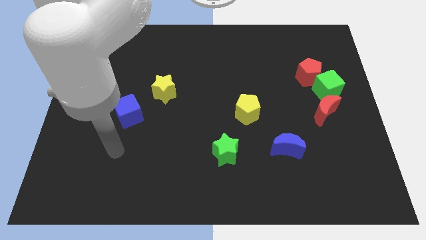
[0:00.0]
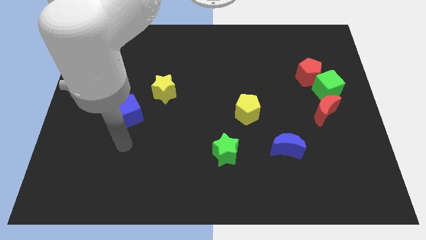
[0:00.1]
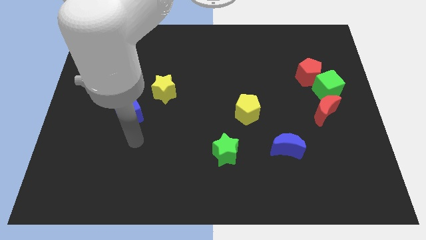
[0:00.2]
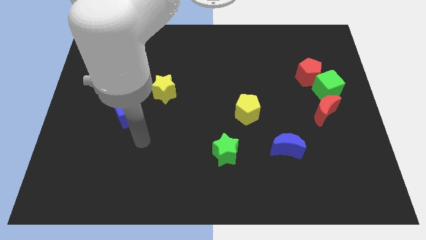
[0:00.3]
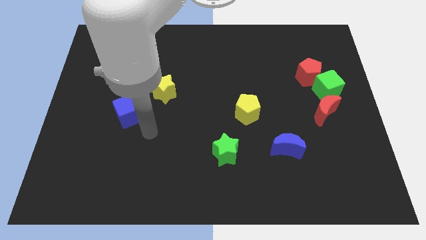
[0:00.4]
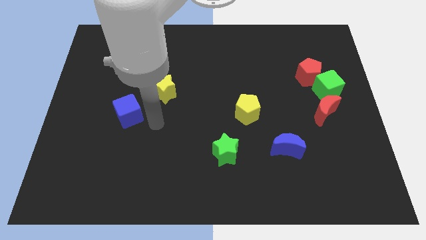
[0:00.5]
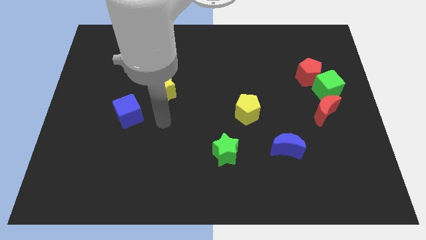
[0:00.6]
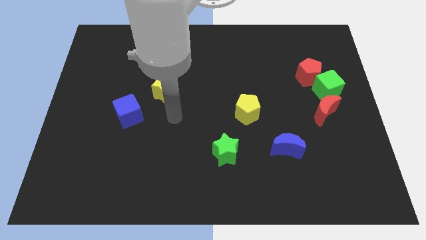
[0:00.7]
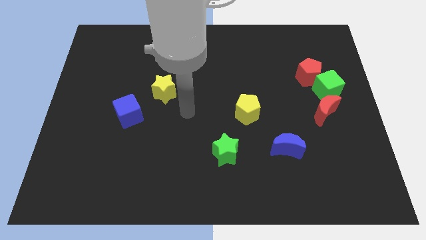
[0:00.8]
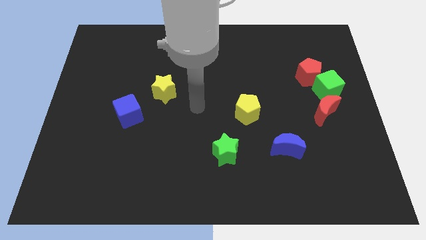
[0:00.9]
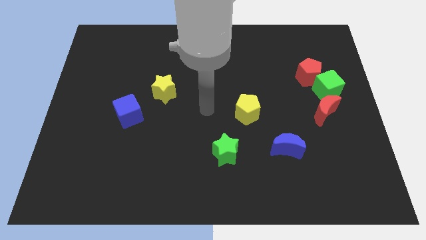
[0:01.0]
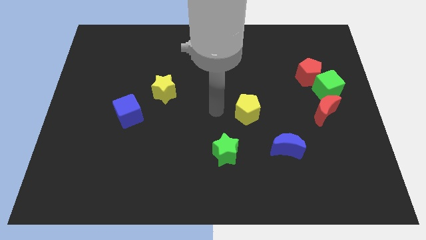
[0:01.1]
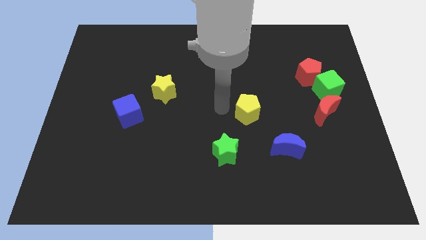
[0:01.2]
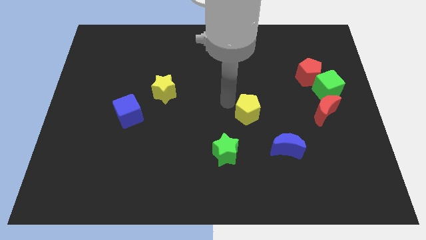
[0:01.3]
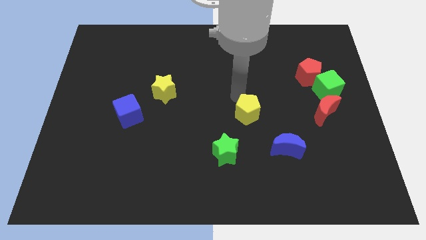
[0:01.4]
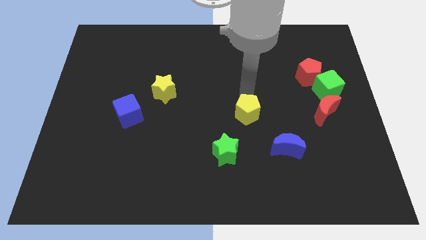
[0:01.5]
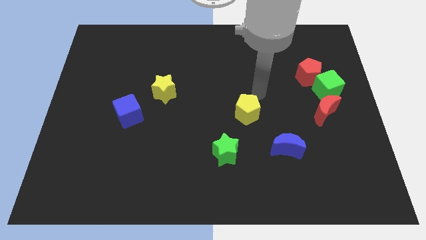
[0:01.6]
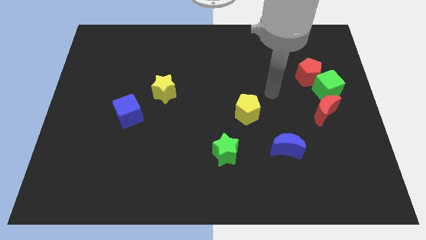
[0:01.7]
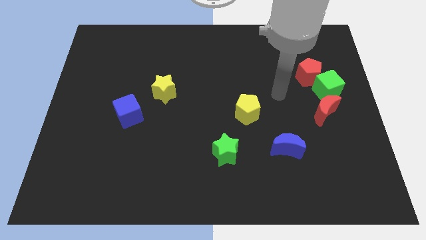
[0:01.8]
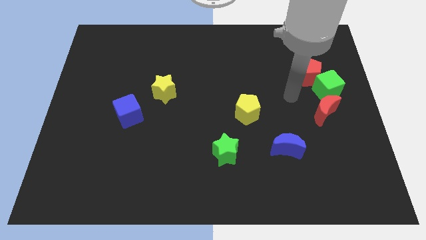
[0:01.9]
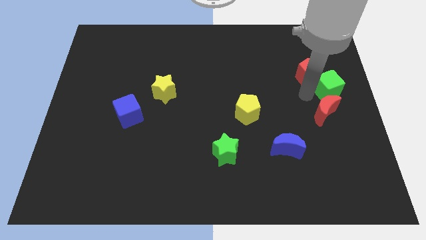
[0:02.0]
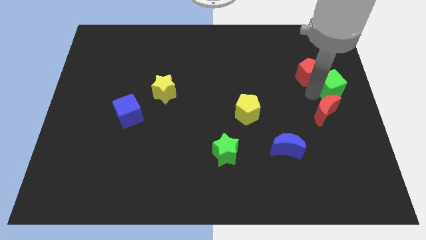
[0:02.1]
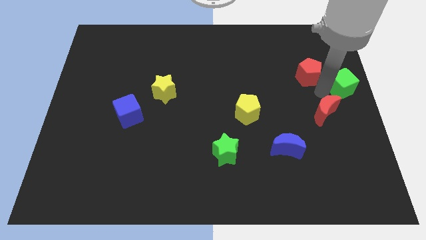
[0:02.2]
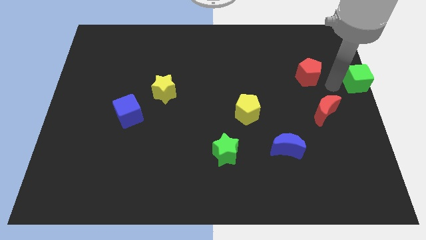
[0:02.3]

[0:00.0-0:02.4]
separate the red pentagon from the green cube

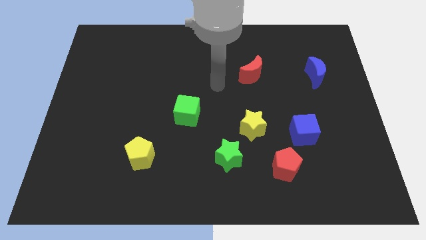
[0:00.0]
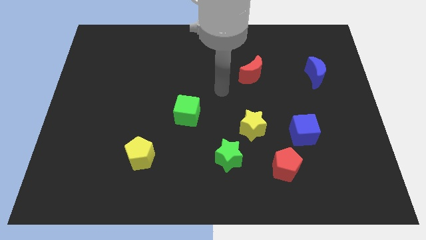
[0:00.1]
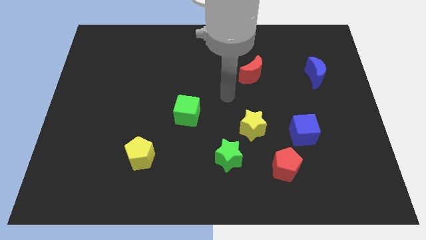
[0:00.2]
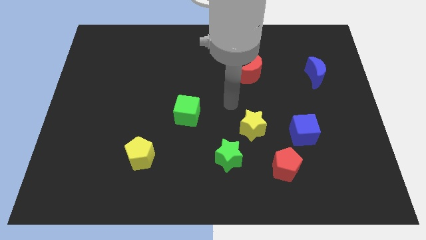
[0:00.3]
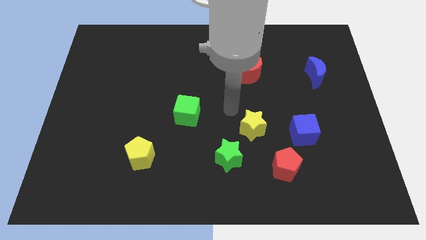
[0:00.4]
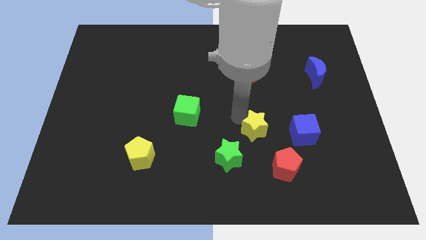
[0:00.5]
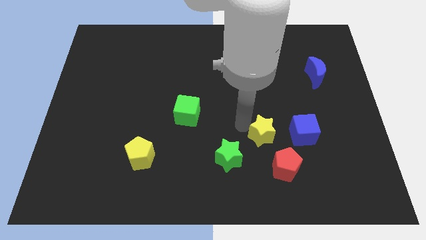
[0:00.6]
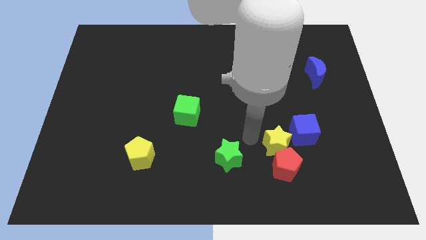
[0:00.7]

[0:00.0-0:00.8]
move the green star away from the yellow star

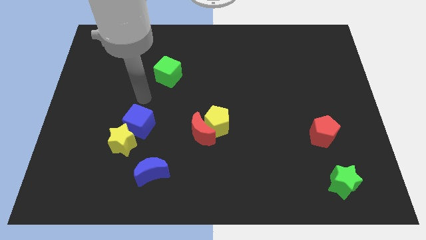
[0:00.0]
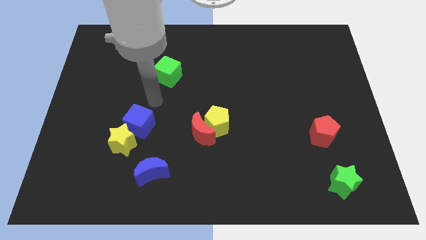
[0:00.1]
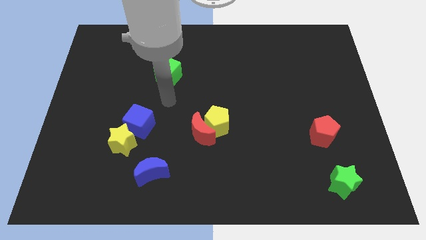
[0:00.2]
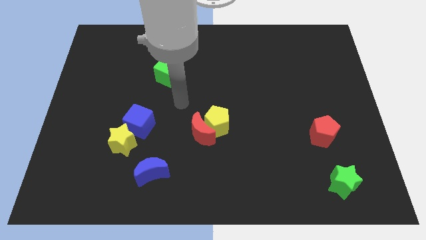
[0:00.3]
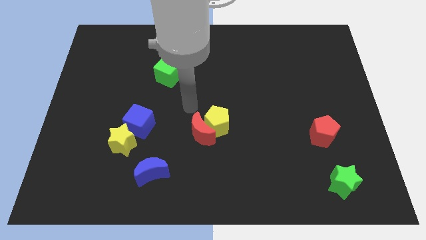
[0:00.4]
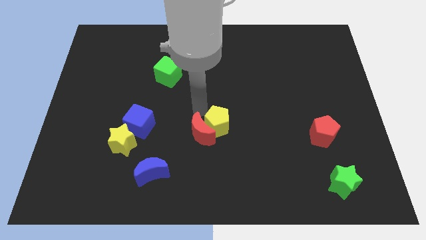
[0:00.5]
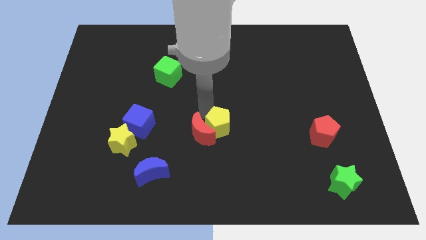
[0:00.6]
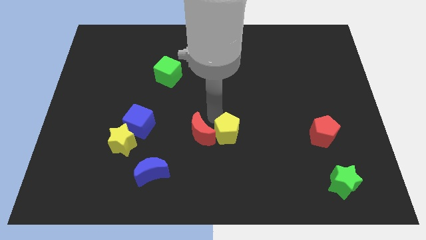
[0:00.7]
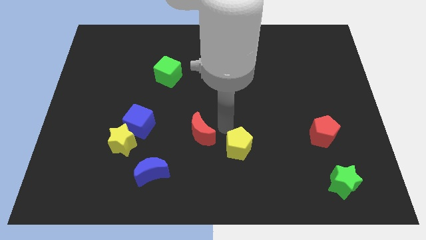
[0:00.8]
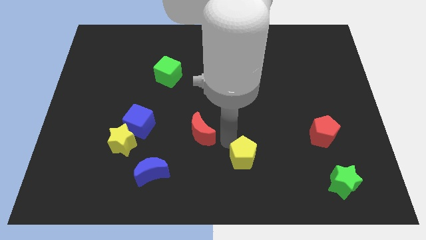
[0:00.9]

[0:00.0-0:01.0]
move the red moon away from the yellow pentagon

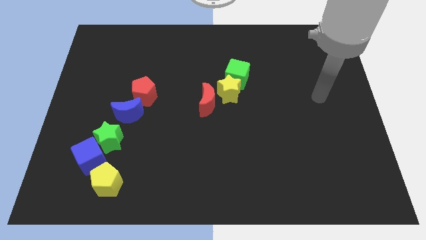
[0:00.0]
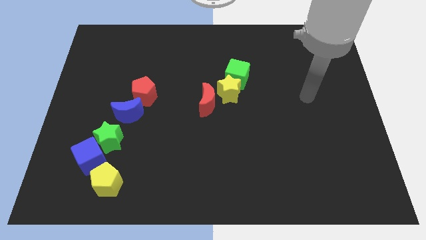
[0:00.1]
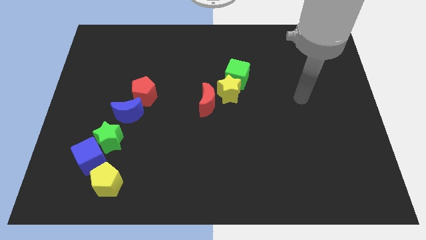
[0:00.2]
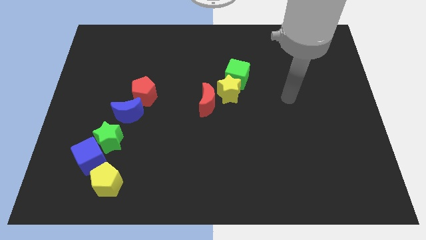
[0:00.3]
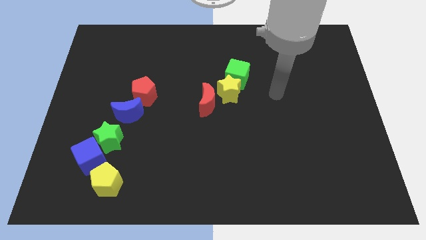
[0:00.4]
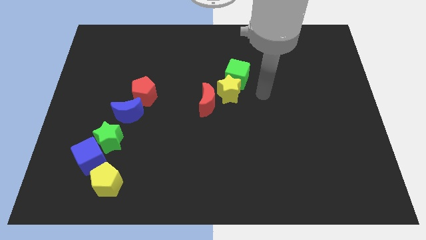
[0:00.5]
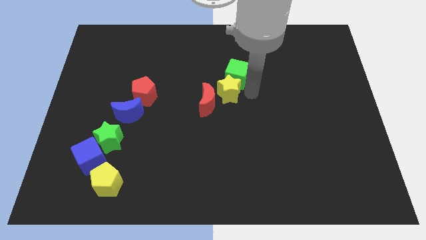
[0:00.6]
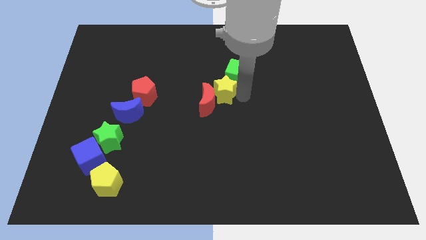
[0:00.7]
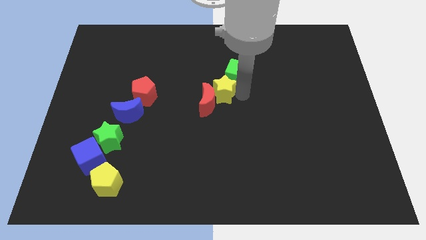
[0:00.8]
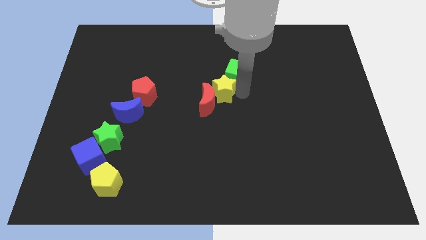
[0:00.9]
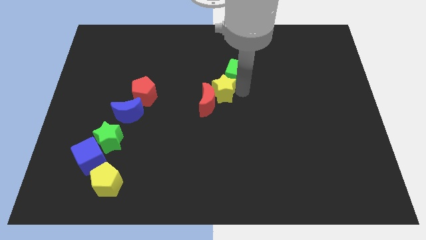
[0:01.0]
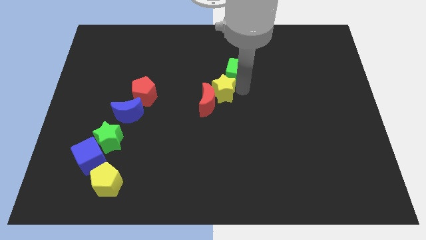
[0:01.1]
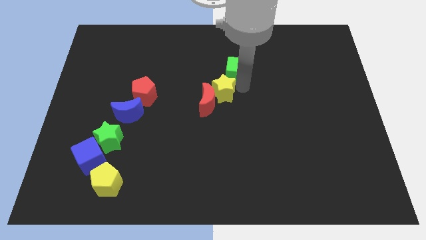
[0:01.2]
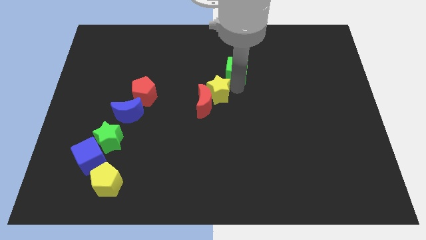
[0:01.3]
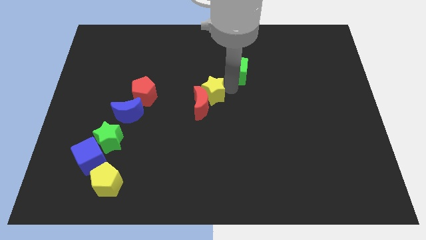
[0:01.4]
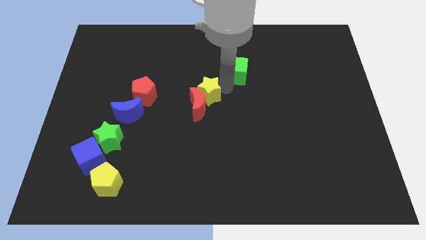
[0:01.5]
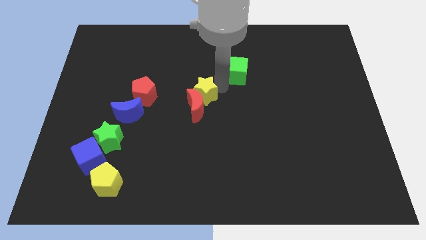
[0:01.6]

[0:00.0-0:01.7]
move the green cube away from the yellow star

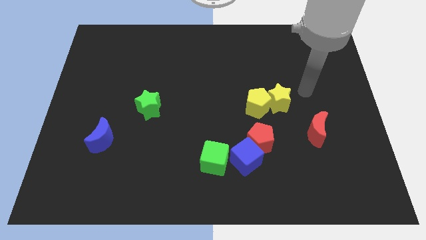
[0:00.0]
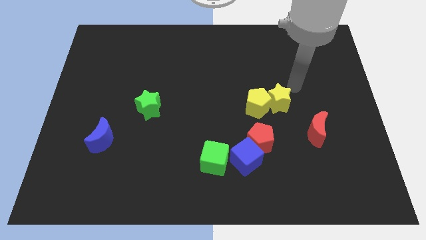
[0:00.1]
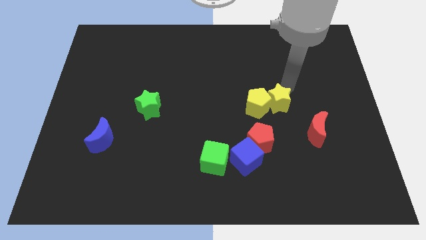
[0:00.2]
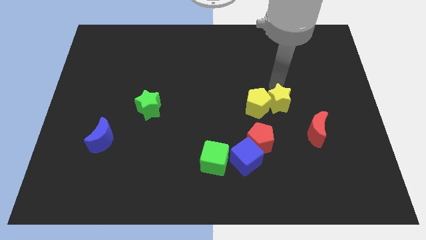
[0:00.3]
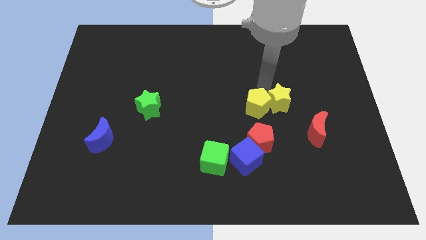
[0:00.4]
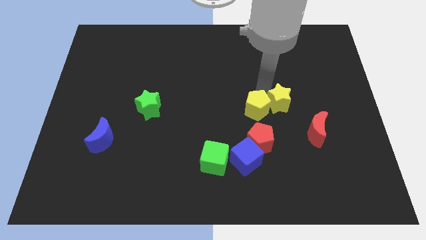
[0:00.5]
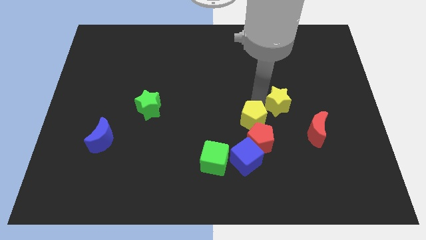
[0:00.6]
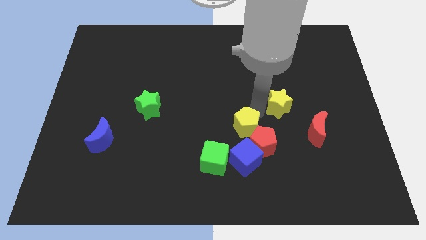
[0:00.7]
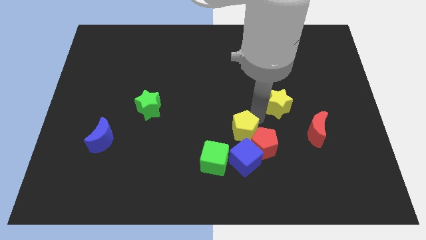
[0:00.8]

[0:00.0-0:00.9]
separate the yellow star from the yellow pentagon

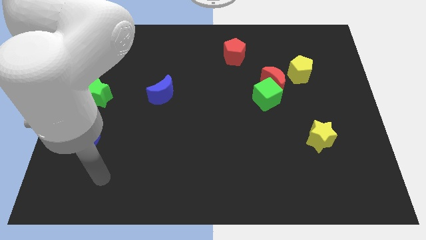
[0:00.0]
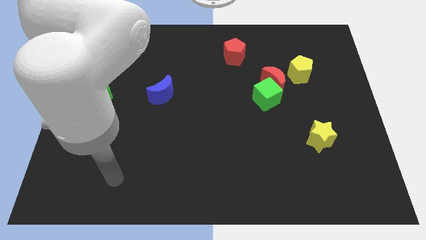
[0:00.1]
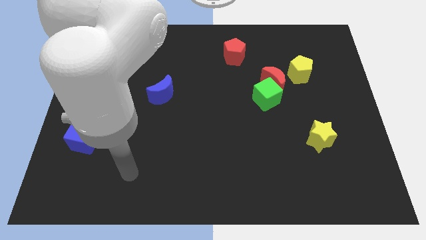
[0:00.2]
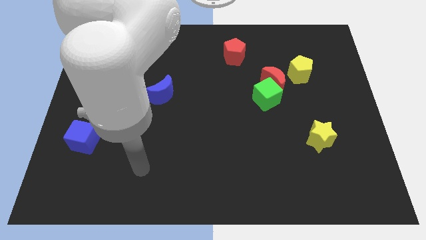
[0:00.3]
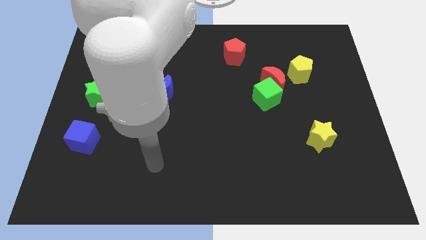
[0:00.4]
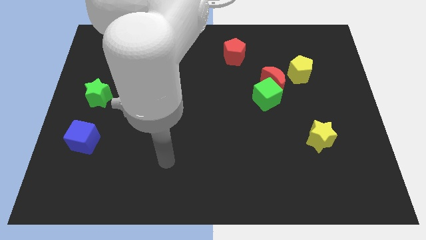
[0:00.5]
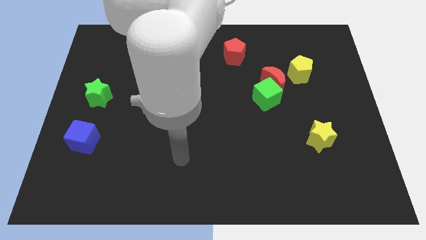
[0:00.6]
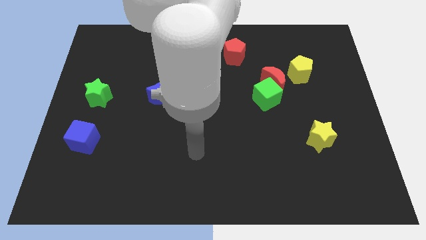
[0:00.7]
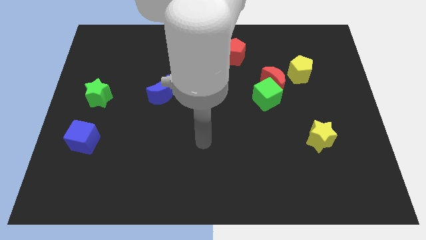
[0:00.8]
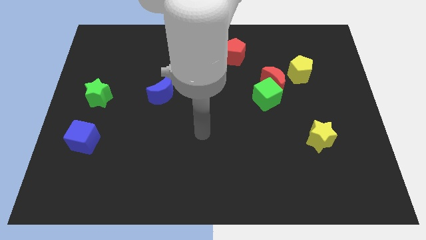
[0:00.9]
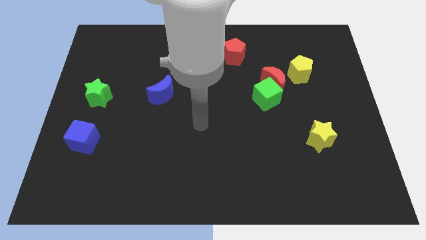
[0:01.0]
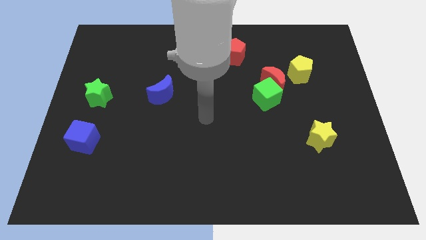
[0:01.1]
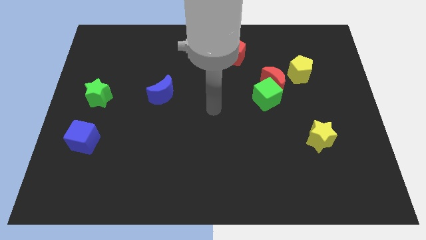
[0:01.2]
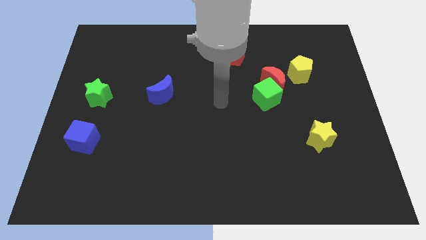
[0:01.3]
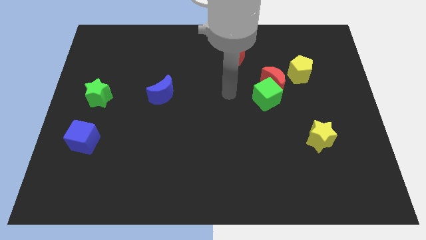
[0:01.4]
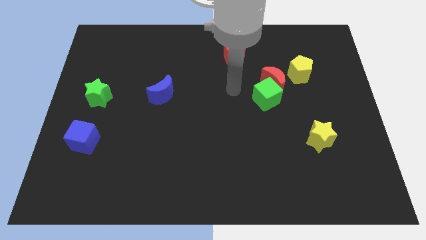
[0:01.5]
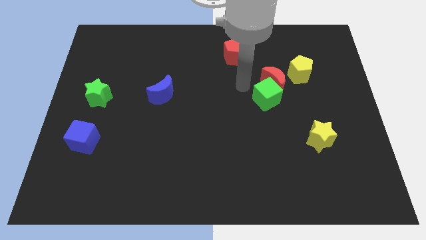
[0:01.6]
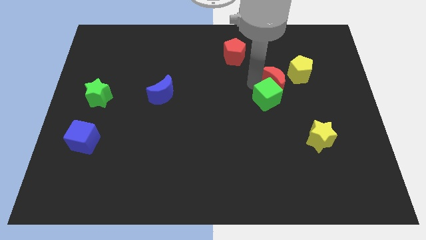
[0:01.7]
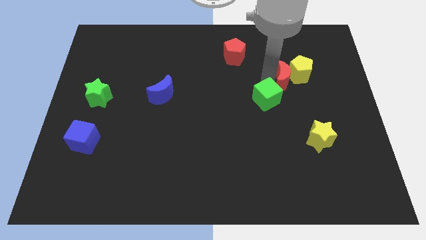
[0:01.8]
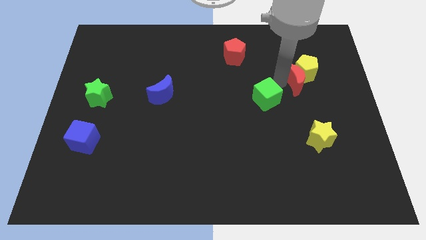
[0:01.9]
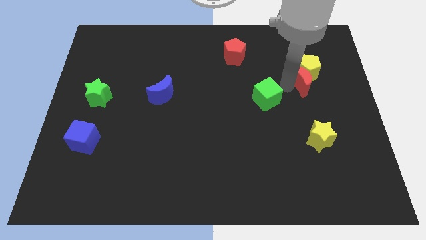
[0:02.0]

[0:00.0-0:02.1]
separate the green cube from the red moon

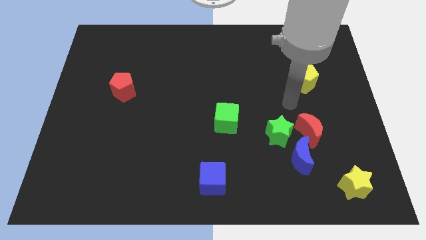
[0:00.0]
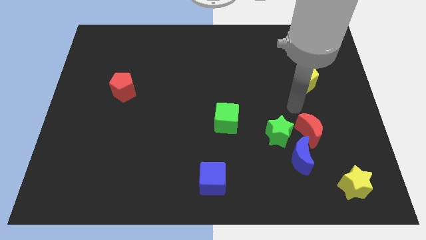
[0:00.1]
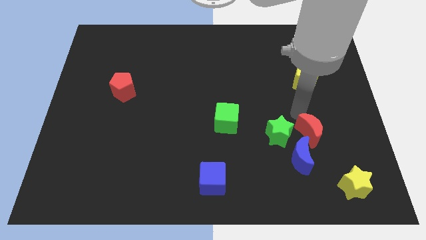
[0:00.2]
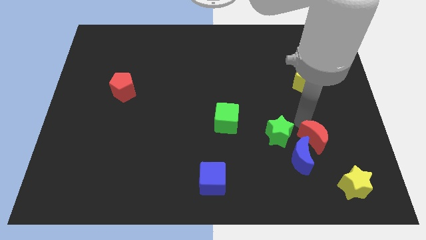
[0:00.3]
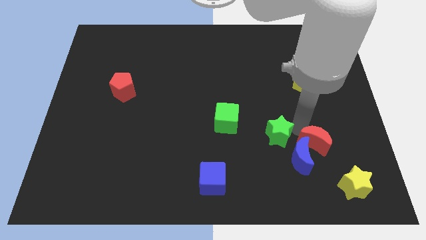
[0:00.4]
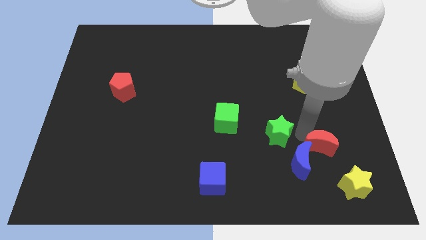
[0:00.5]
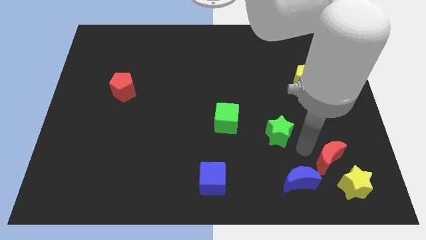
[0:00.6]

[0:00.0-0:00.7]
move the green star away from the blue moon and red moon
